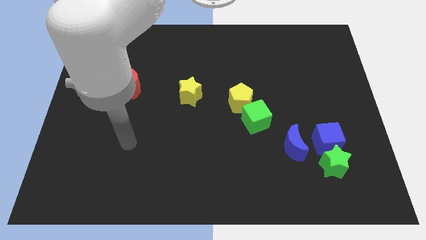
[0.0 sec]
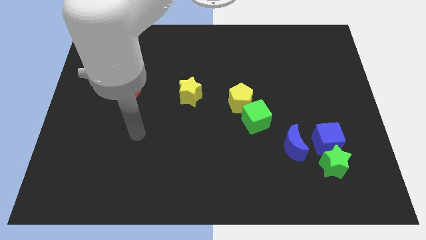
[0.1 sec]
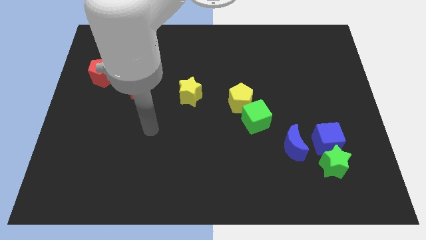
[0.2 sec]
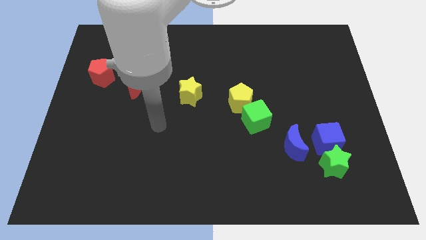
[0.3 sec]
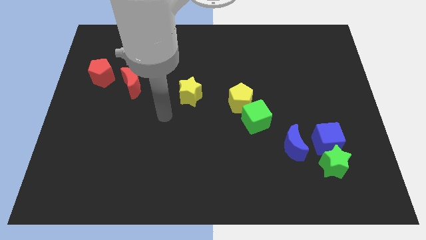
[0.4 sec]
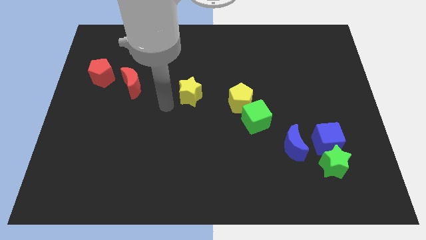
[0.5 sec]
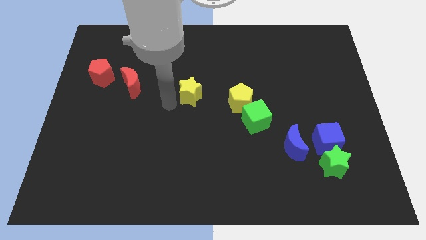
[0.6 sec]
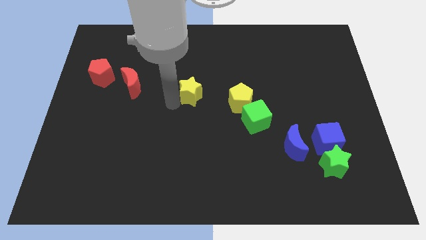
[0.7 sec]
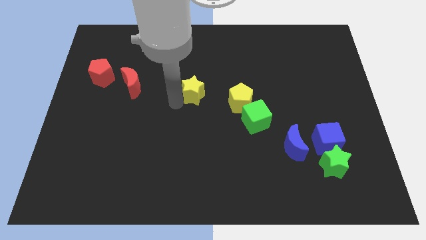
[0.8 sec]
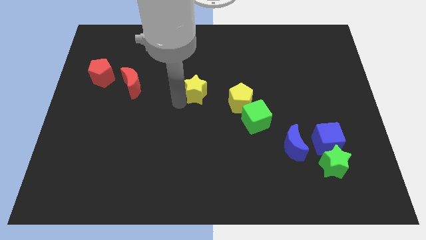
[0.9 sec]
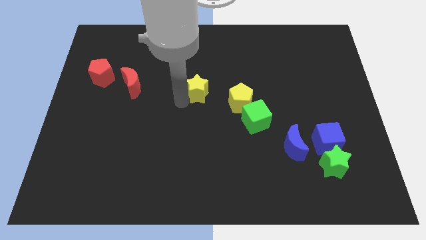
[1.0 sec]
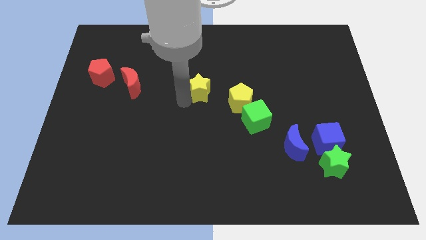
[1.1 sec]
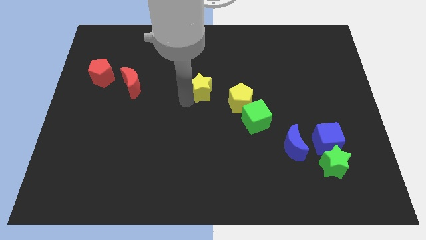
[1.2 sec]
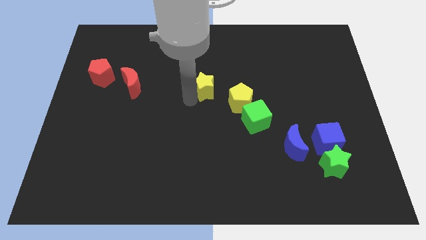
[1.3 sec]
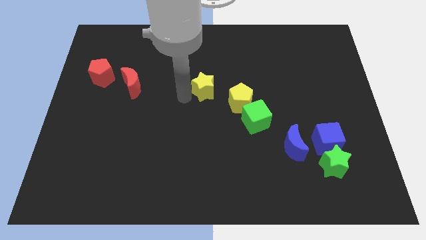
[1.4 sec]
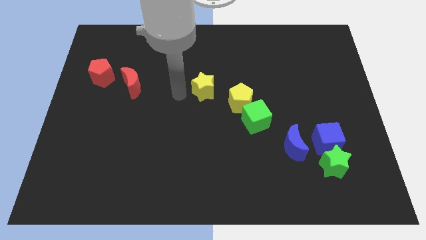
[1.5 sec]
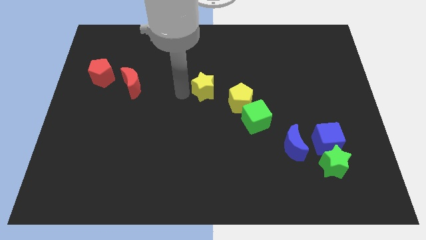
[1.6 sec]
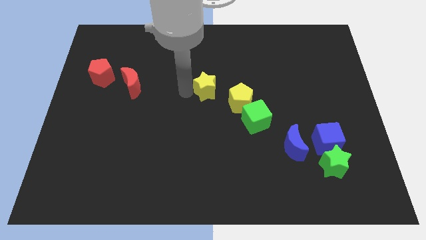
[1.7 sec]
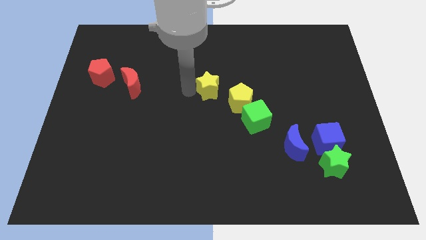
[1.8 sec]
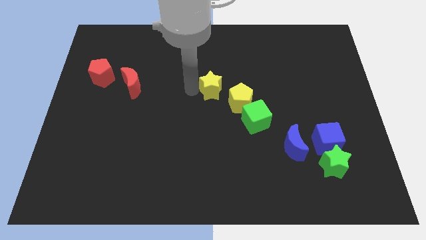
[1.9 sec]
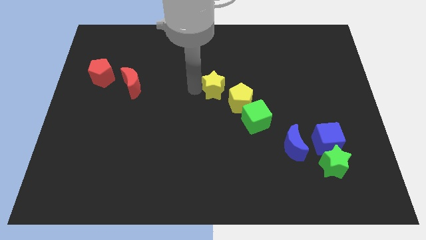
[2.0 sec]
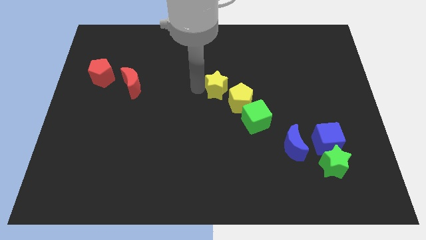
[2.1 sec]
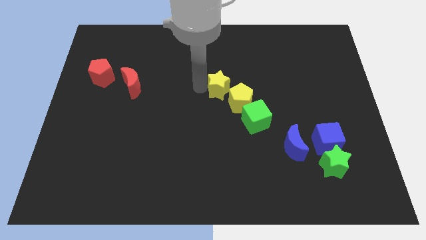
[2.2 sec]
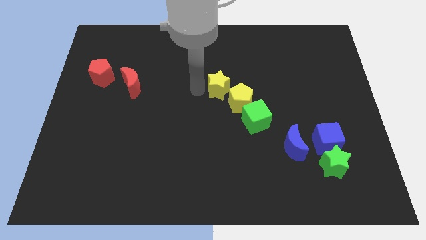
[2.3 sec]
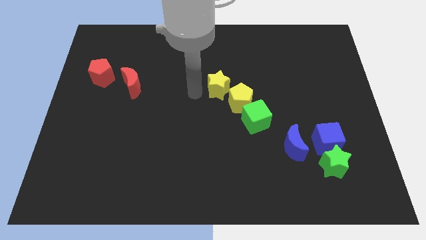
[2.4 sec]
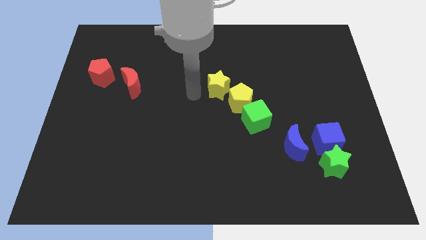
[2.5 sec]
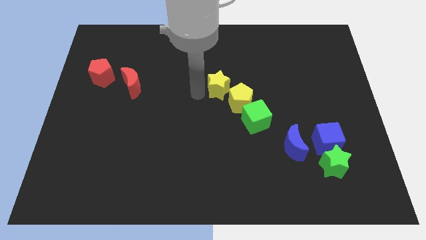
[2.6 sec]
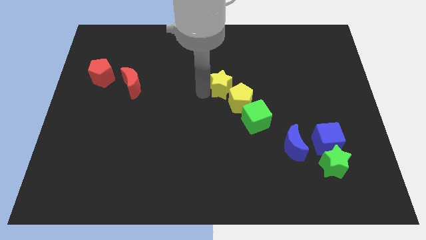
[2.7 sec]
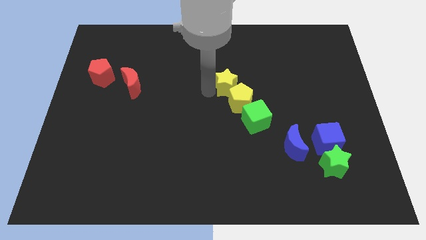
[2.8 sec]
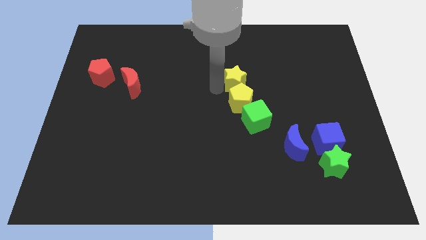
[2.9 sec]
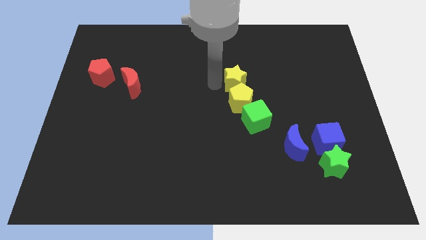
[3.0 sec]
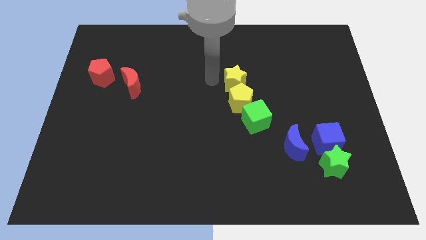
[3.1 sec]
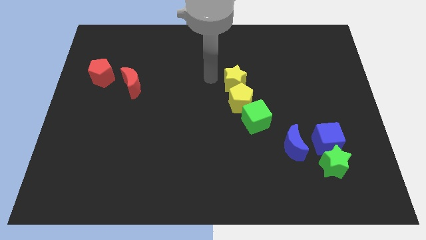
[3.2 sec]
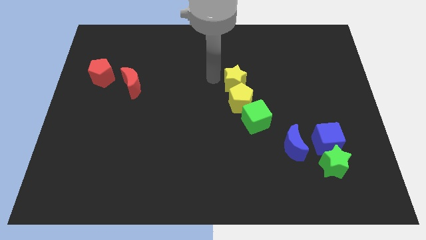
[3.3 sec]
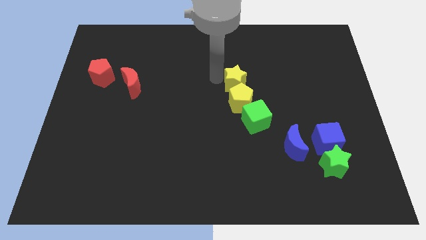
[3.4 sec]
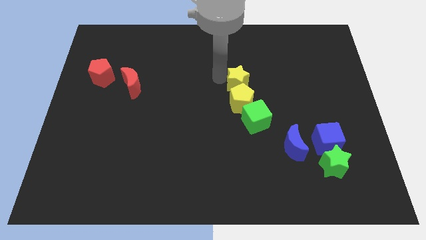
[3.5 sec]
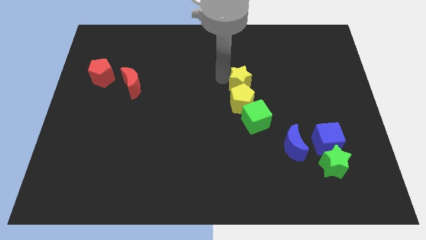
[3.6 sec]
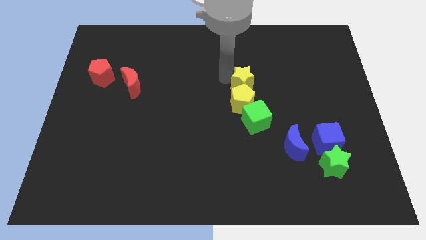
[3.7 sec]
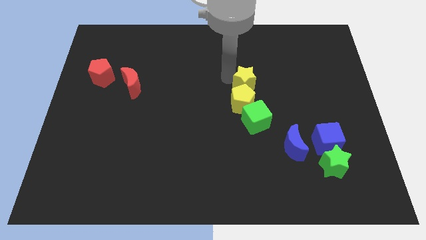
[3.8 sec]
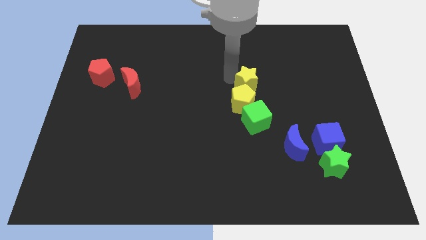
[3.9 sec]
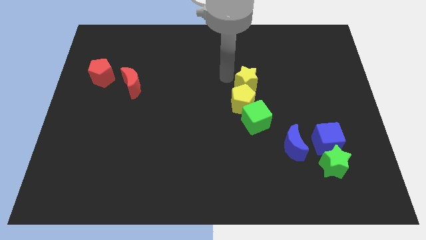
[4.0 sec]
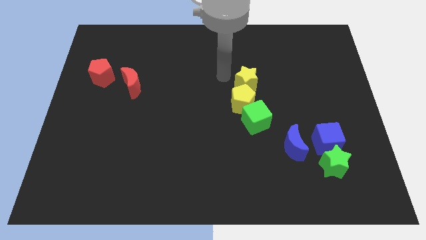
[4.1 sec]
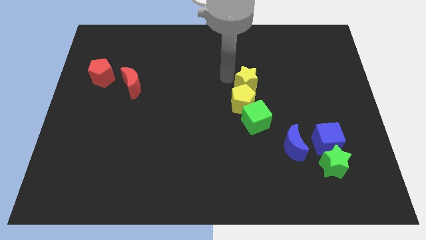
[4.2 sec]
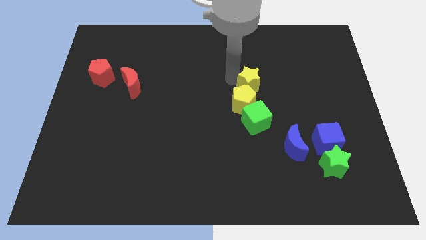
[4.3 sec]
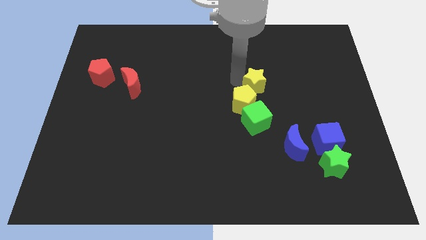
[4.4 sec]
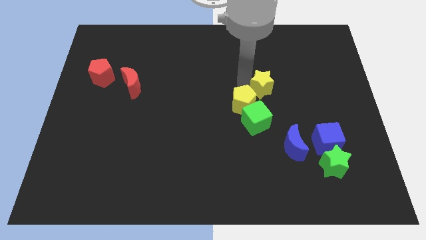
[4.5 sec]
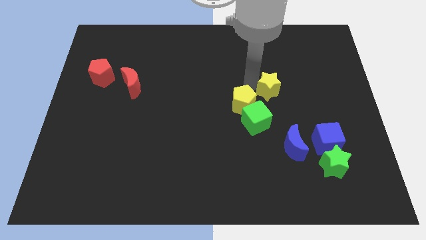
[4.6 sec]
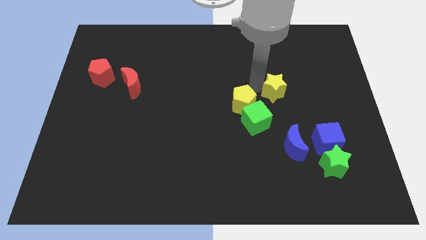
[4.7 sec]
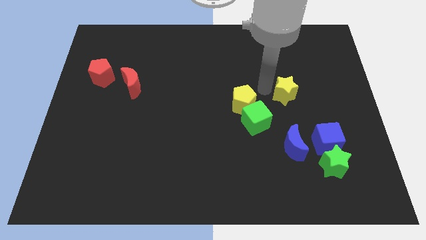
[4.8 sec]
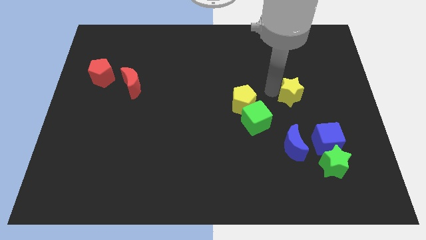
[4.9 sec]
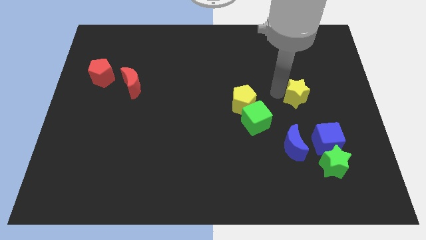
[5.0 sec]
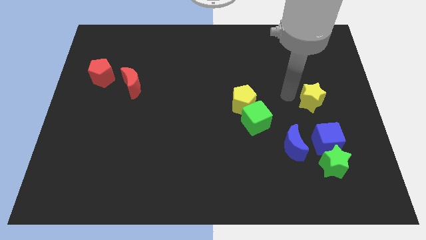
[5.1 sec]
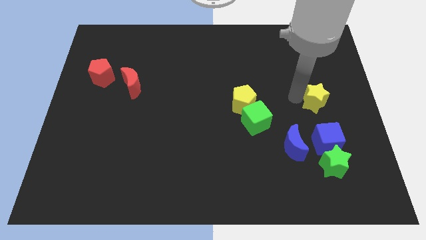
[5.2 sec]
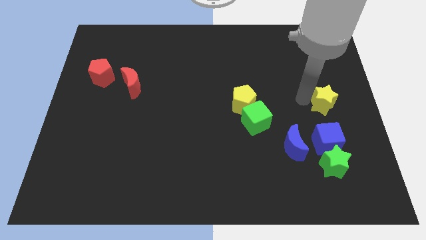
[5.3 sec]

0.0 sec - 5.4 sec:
put the yellow star to the right side of the board

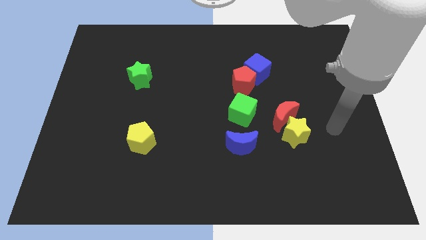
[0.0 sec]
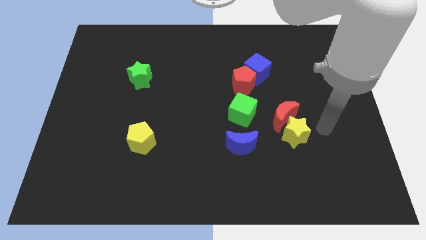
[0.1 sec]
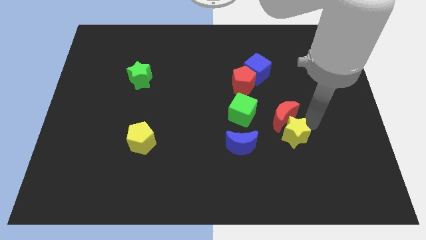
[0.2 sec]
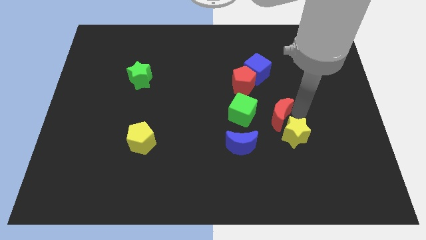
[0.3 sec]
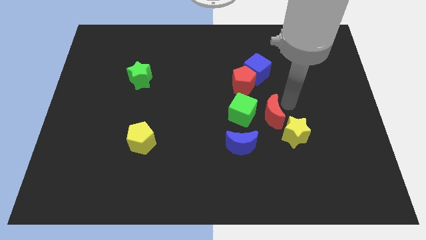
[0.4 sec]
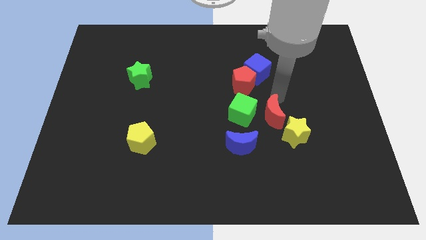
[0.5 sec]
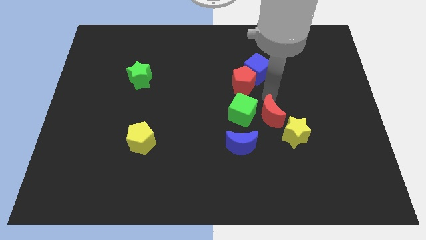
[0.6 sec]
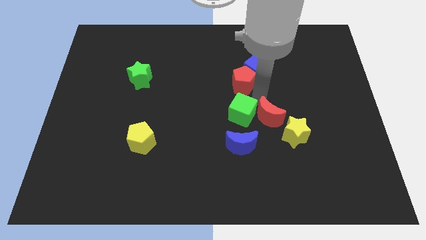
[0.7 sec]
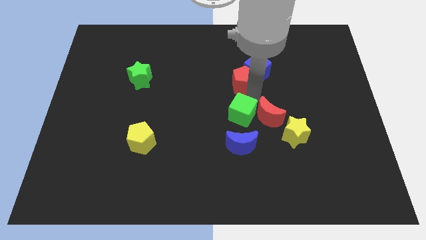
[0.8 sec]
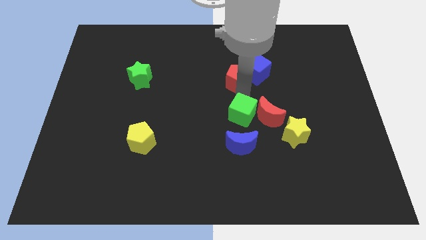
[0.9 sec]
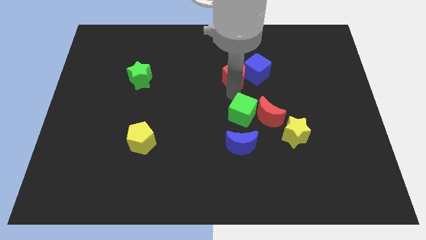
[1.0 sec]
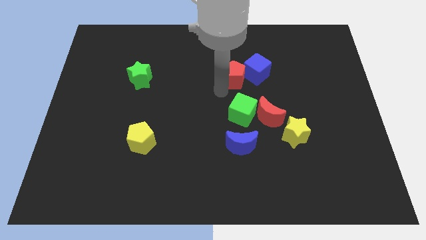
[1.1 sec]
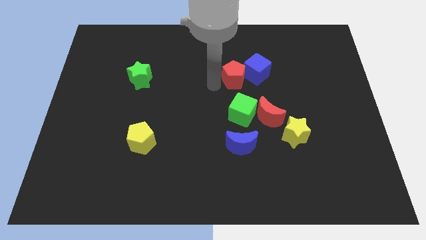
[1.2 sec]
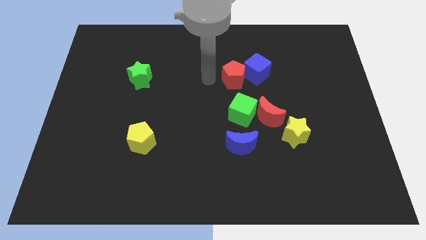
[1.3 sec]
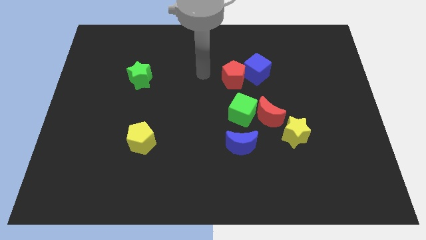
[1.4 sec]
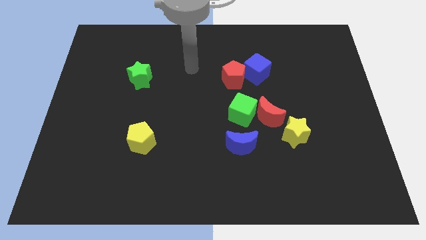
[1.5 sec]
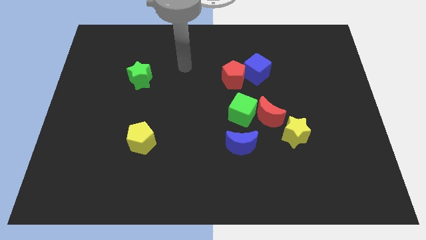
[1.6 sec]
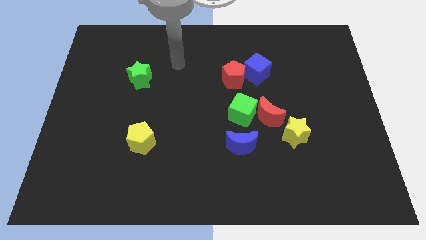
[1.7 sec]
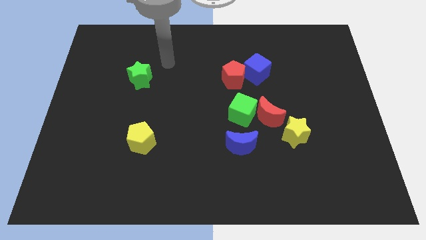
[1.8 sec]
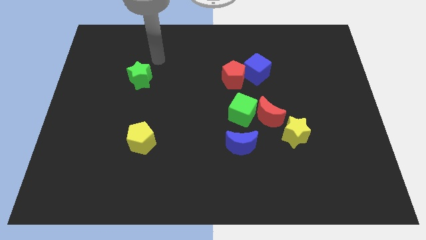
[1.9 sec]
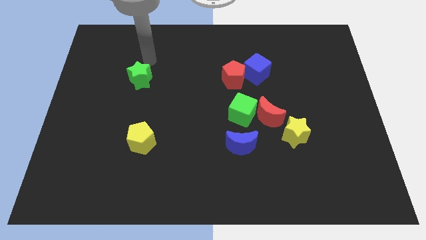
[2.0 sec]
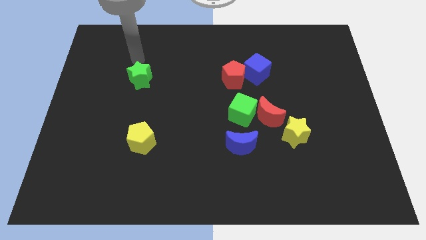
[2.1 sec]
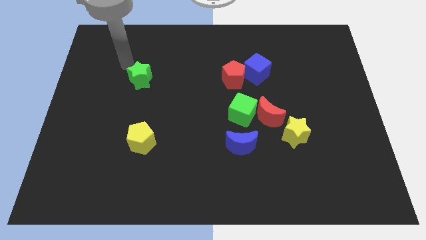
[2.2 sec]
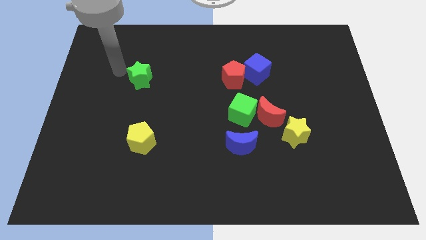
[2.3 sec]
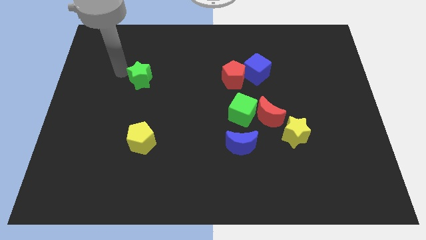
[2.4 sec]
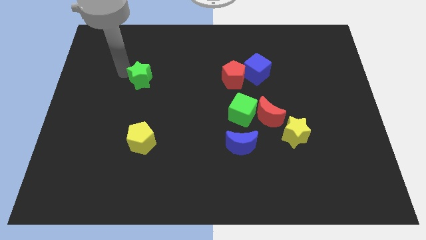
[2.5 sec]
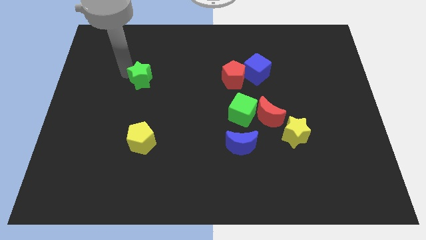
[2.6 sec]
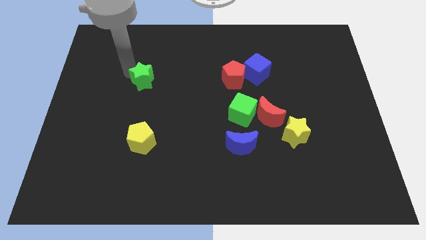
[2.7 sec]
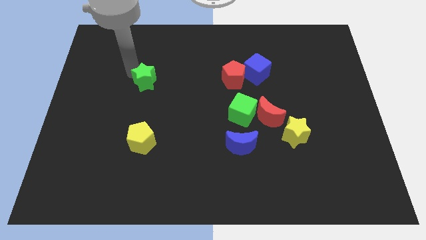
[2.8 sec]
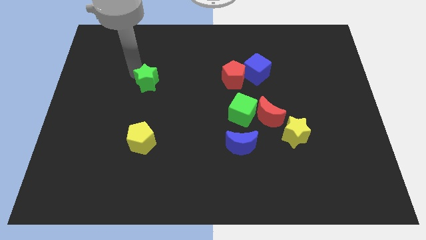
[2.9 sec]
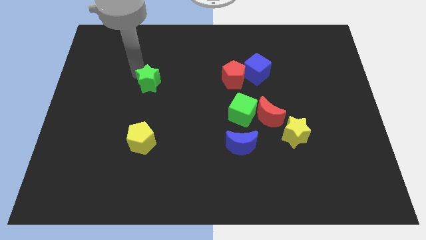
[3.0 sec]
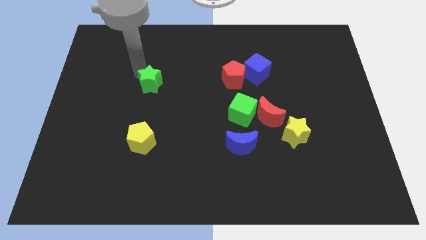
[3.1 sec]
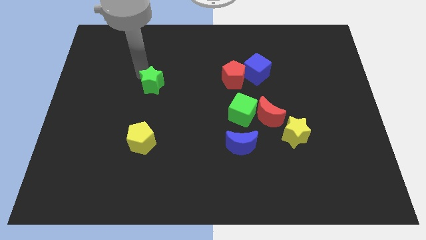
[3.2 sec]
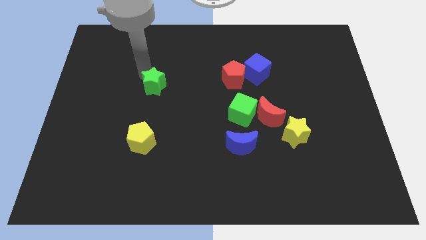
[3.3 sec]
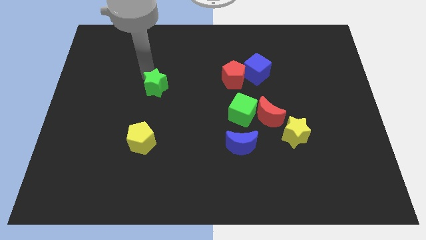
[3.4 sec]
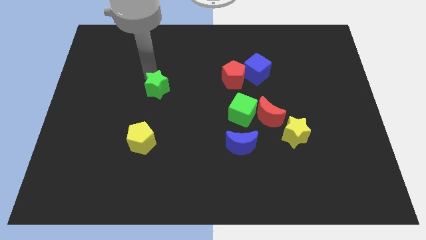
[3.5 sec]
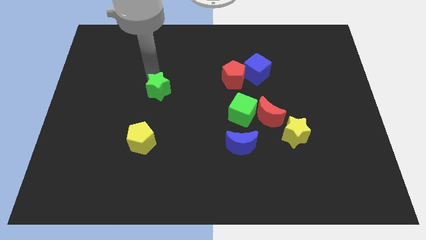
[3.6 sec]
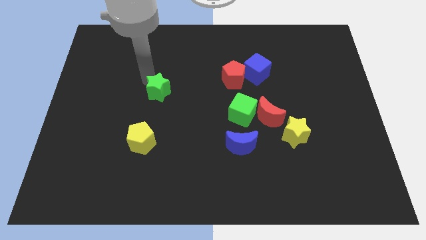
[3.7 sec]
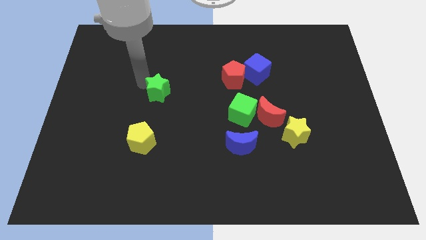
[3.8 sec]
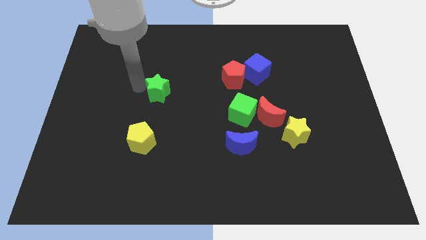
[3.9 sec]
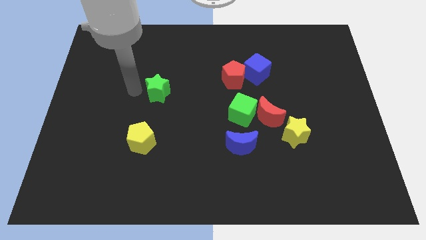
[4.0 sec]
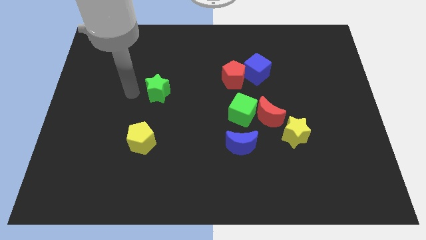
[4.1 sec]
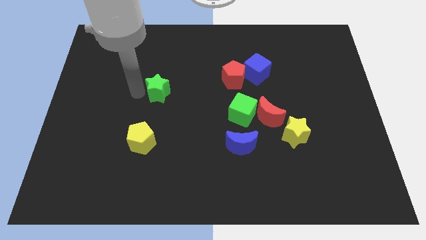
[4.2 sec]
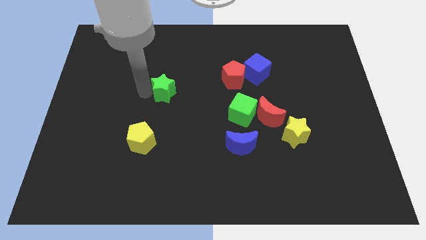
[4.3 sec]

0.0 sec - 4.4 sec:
slide the green star to the center of the board
